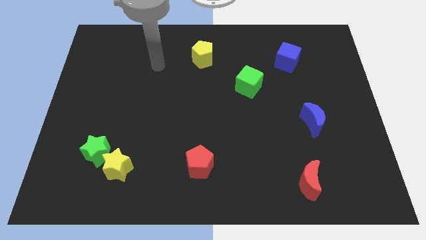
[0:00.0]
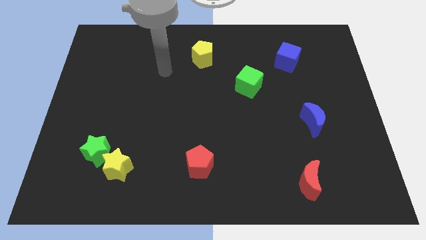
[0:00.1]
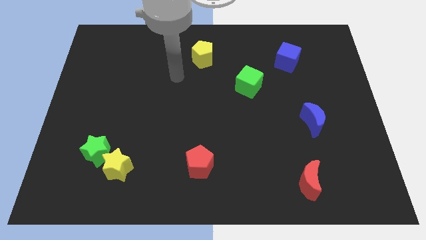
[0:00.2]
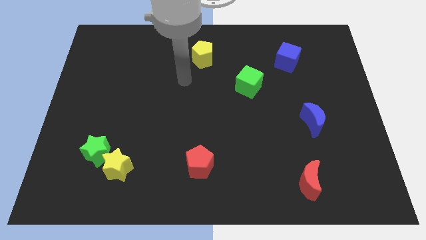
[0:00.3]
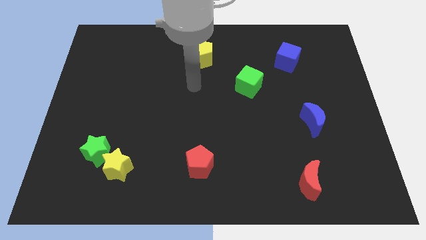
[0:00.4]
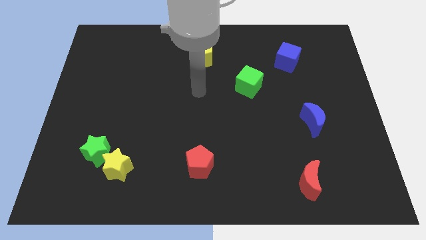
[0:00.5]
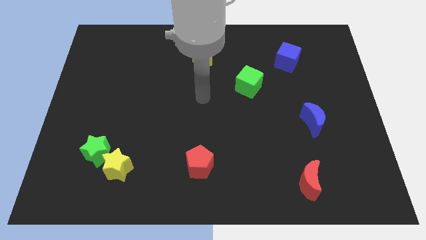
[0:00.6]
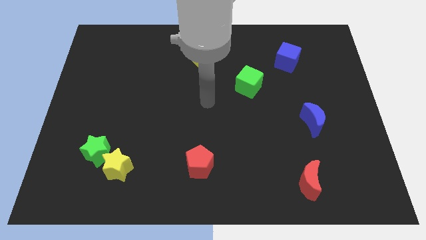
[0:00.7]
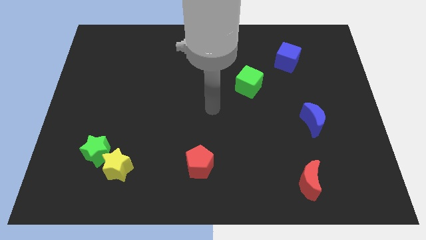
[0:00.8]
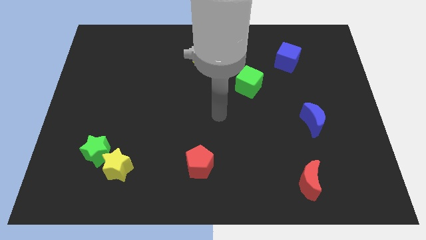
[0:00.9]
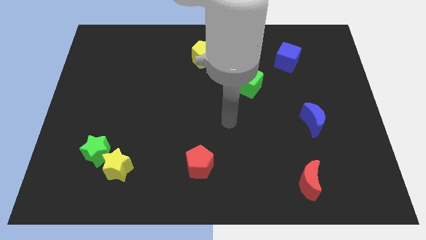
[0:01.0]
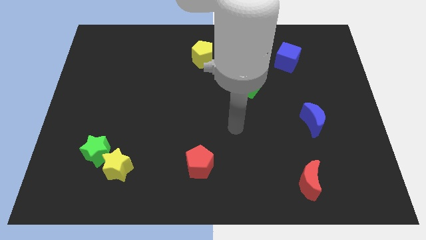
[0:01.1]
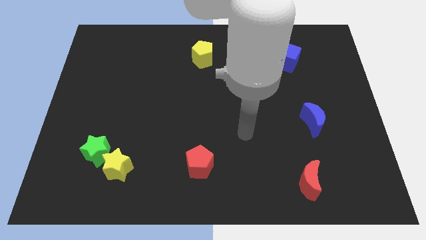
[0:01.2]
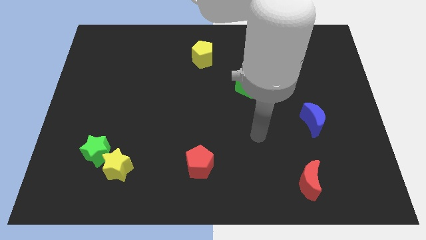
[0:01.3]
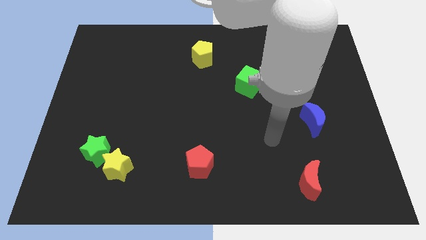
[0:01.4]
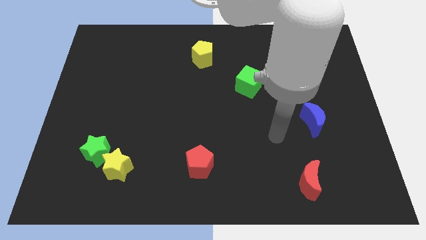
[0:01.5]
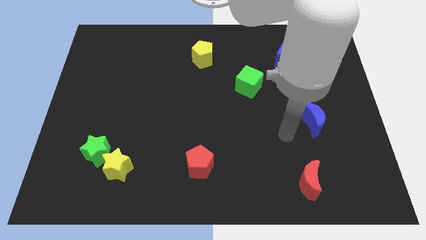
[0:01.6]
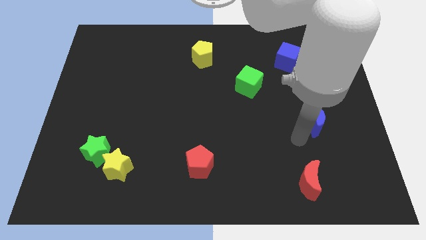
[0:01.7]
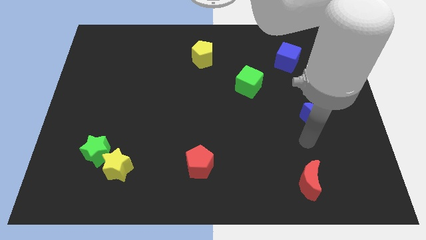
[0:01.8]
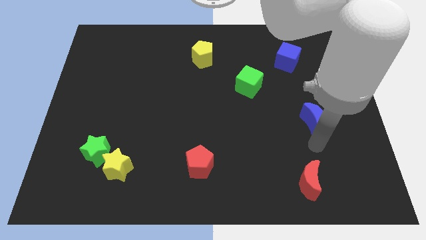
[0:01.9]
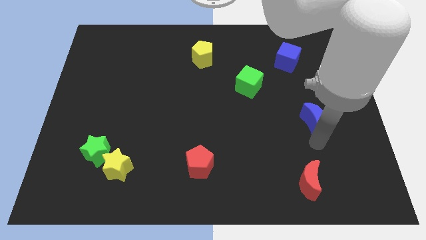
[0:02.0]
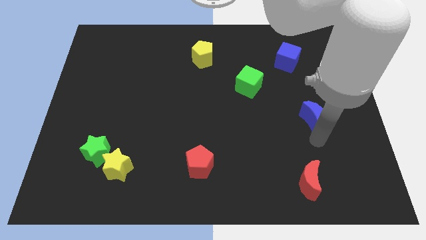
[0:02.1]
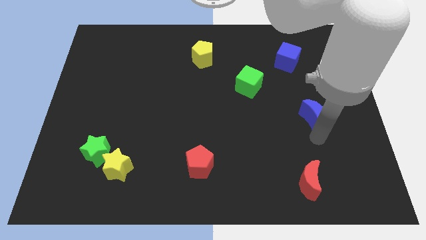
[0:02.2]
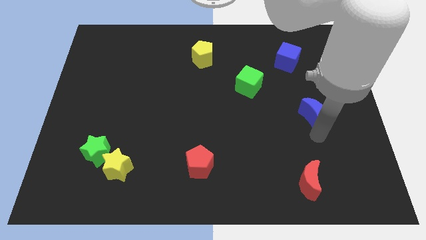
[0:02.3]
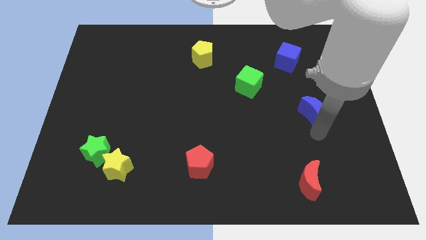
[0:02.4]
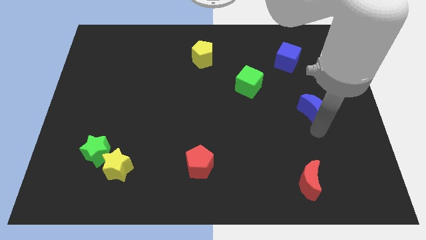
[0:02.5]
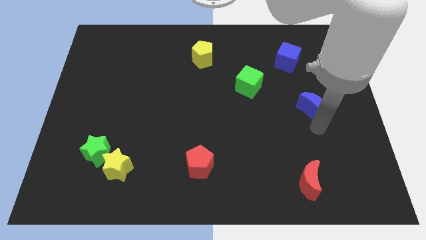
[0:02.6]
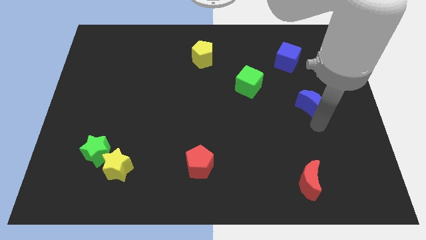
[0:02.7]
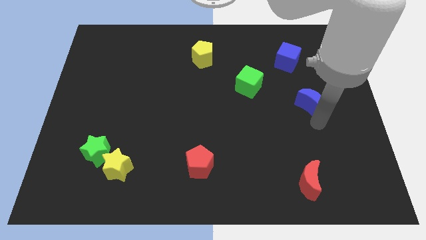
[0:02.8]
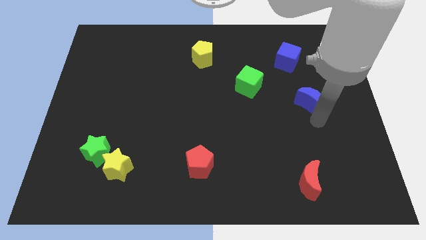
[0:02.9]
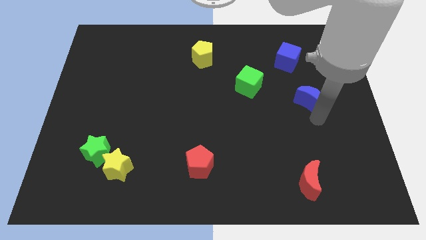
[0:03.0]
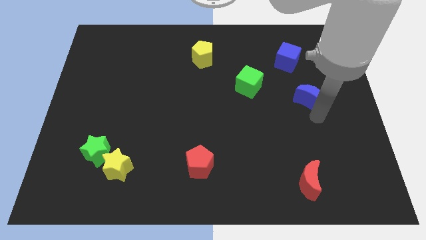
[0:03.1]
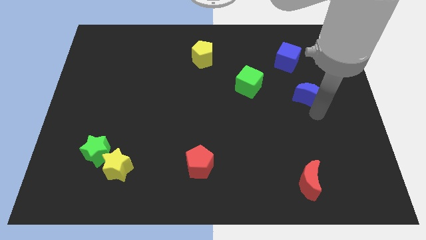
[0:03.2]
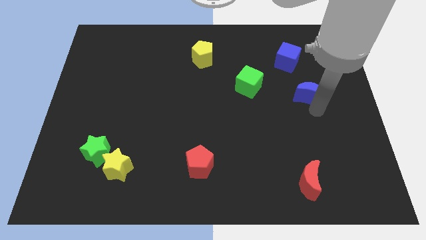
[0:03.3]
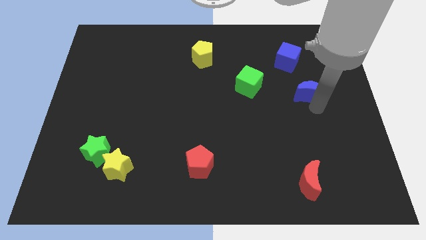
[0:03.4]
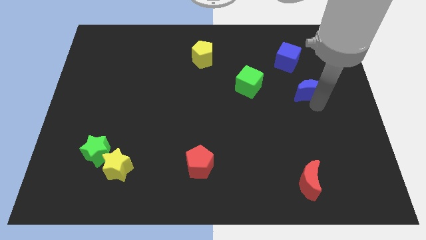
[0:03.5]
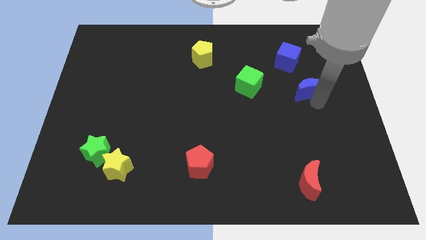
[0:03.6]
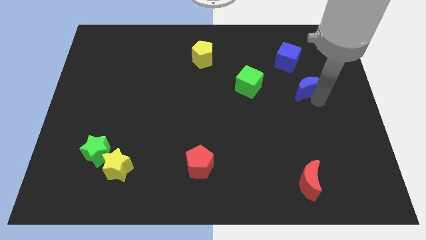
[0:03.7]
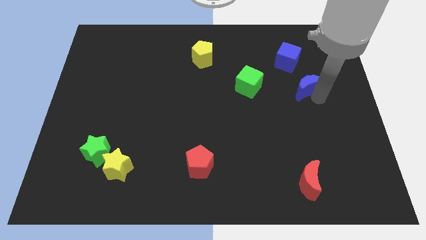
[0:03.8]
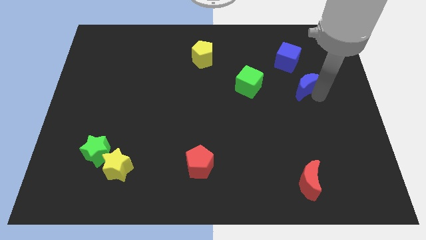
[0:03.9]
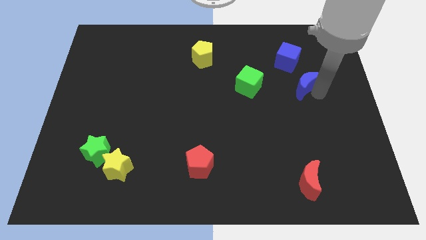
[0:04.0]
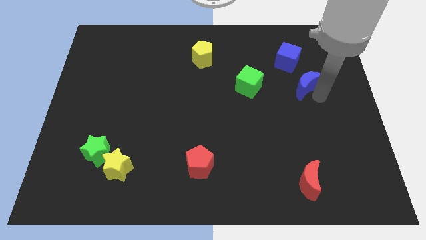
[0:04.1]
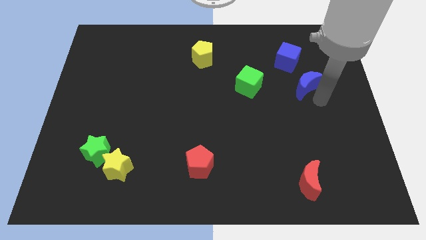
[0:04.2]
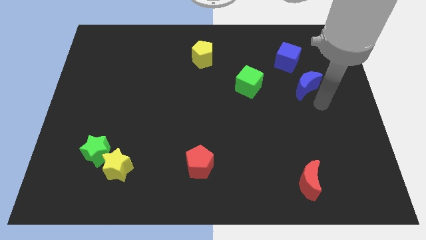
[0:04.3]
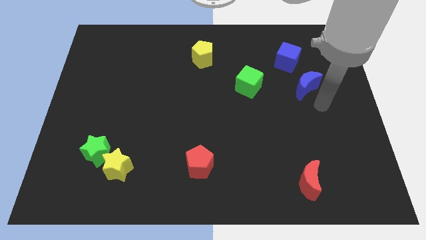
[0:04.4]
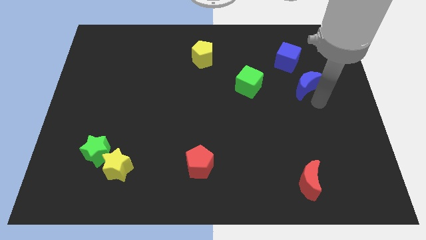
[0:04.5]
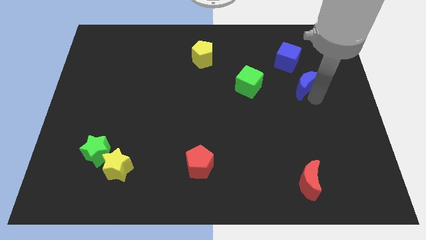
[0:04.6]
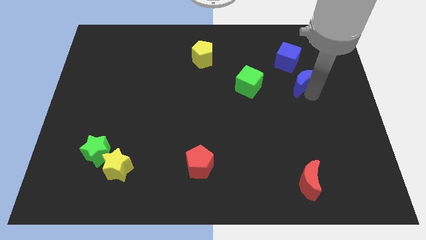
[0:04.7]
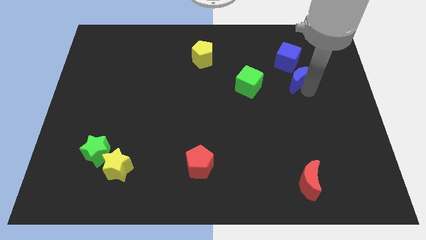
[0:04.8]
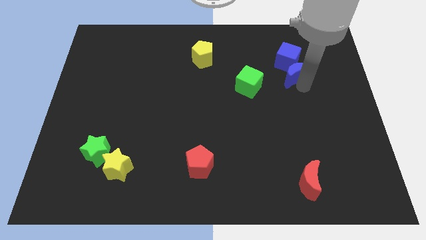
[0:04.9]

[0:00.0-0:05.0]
push the blue moon towards the blue cube
